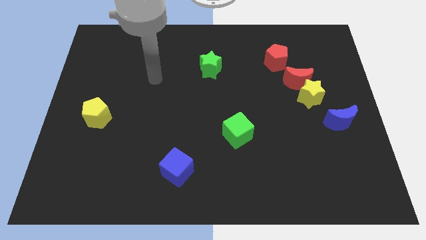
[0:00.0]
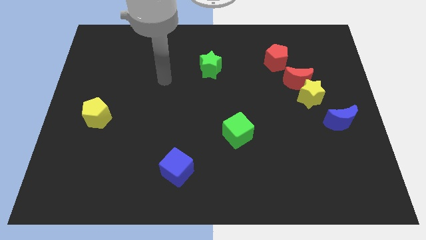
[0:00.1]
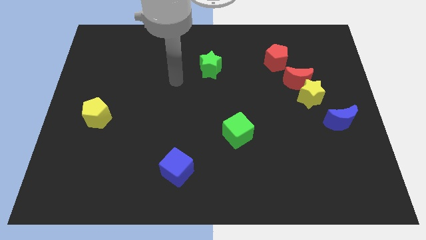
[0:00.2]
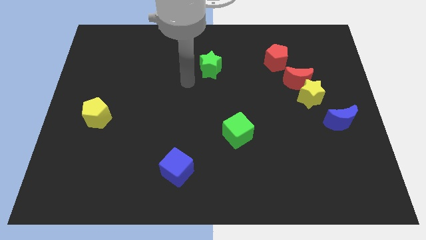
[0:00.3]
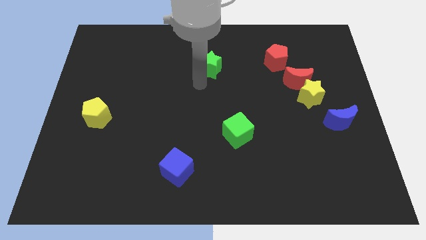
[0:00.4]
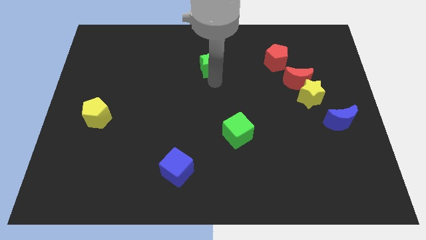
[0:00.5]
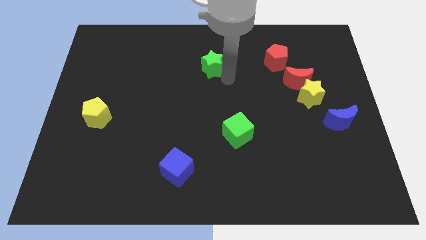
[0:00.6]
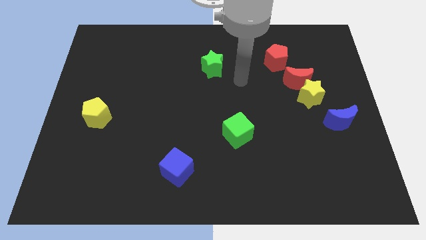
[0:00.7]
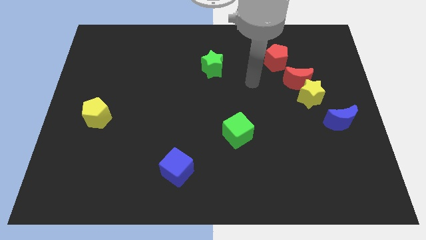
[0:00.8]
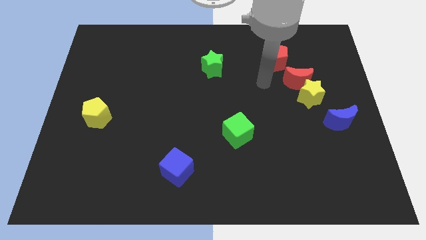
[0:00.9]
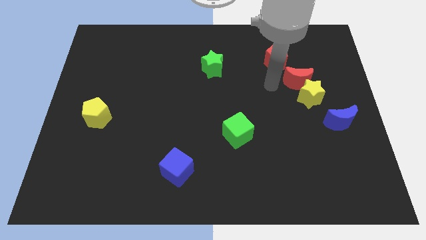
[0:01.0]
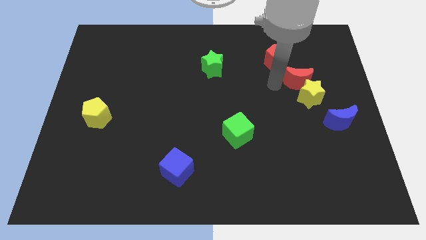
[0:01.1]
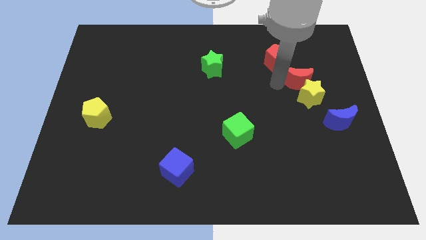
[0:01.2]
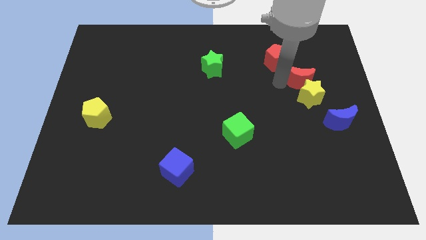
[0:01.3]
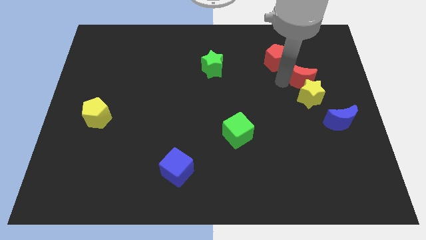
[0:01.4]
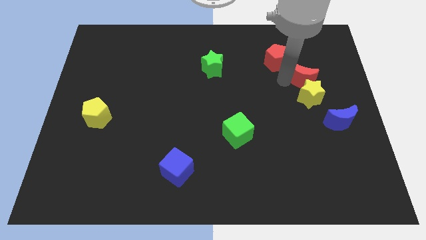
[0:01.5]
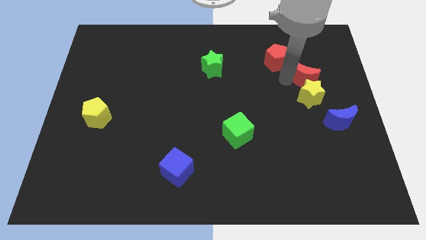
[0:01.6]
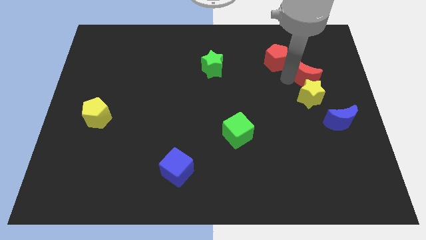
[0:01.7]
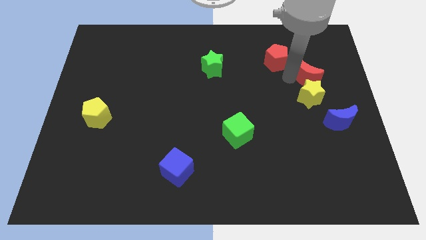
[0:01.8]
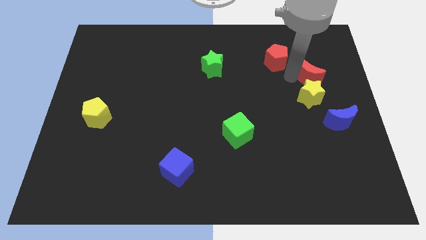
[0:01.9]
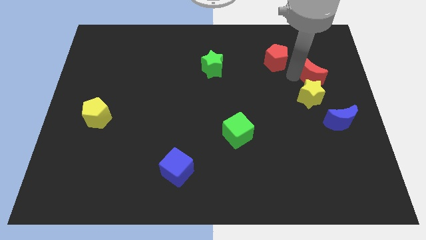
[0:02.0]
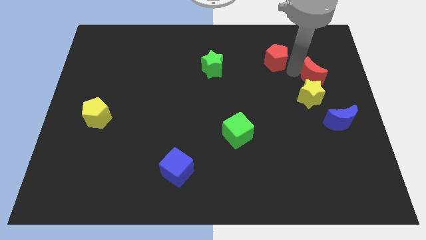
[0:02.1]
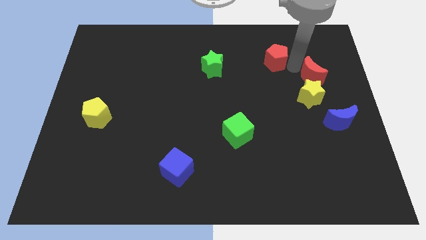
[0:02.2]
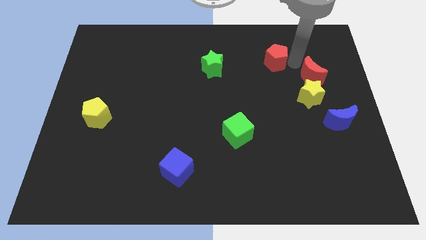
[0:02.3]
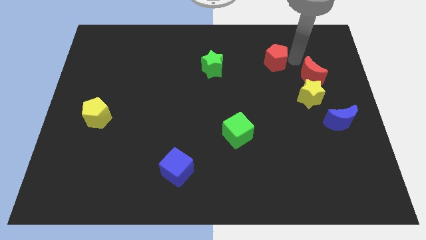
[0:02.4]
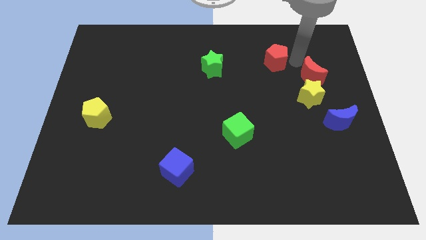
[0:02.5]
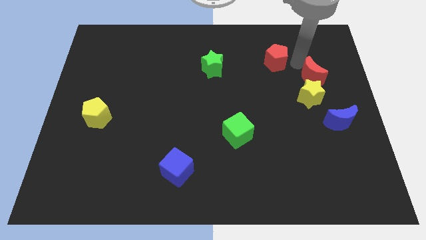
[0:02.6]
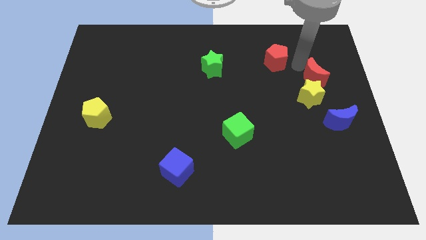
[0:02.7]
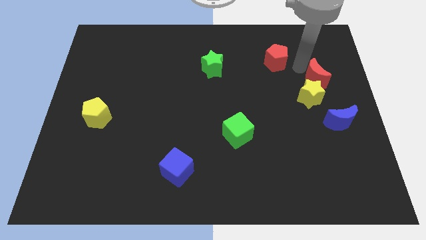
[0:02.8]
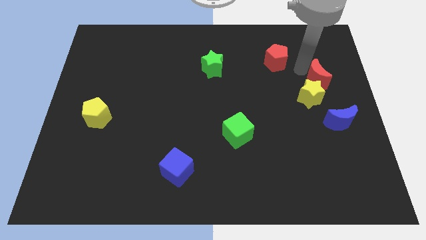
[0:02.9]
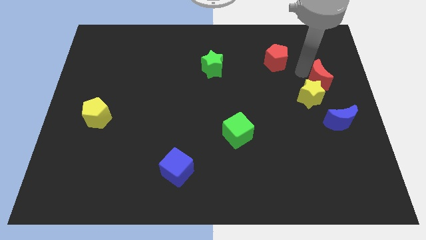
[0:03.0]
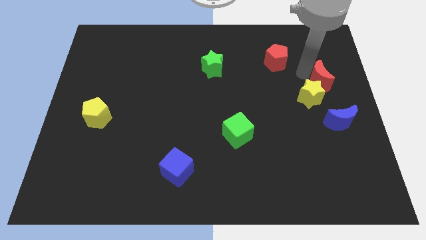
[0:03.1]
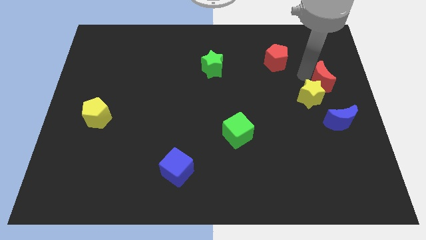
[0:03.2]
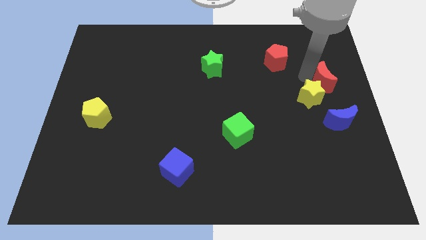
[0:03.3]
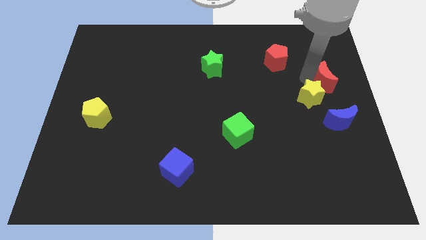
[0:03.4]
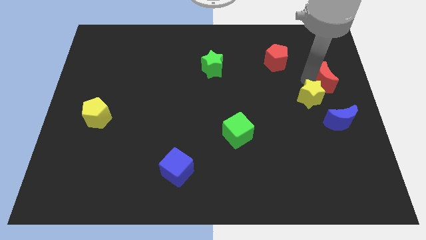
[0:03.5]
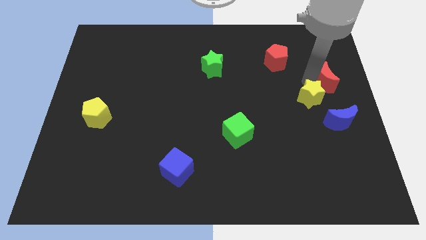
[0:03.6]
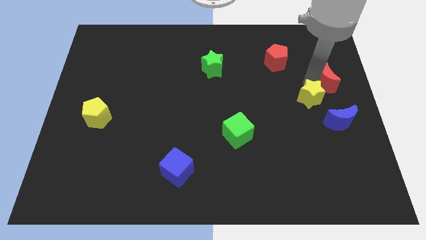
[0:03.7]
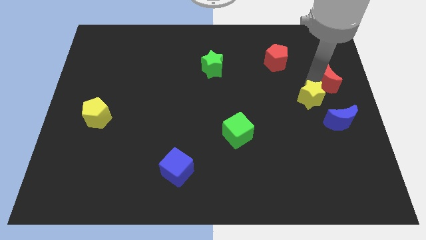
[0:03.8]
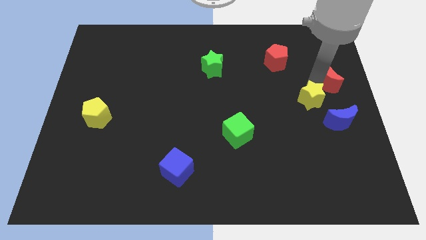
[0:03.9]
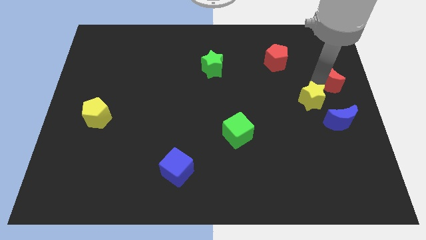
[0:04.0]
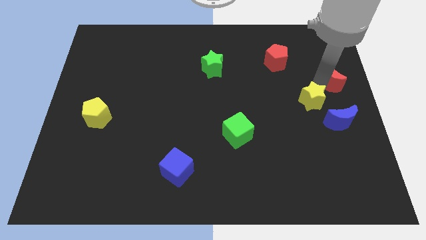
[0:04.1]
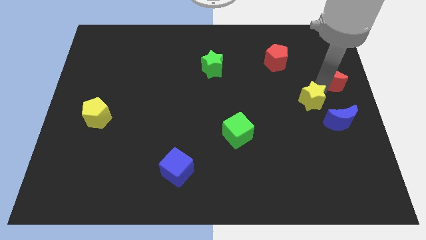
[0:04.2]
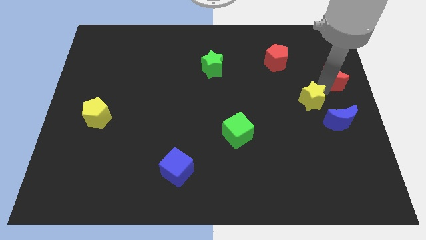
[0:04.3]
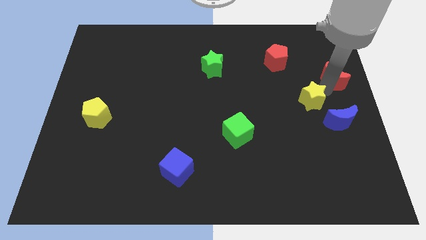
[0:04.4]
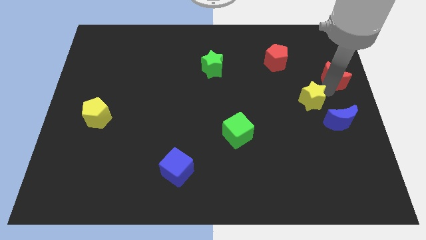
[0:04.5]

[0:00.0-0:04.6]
separate the red moon from the yellow star and red pentagon

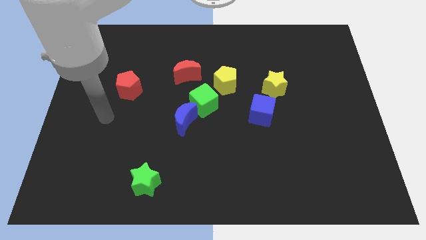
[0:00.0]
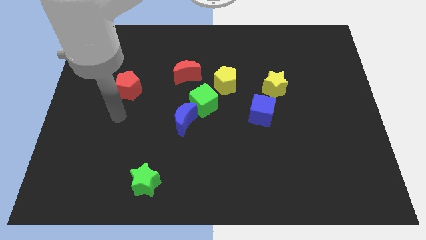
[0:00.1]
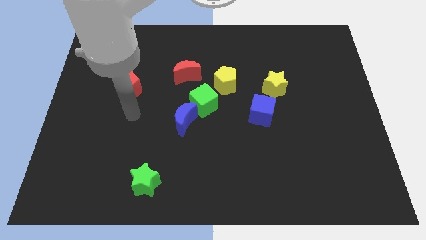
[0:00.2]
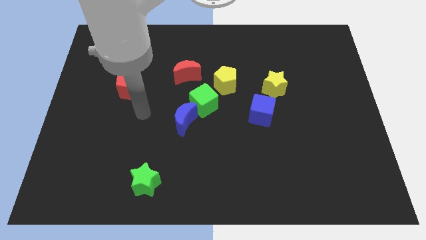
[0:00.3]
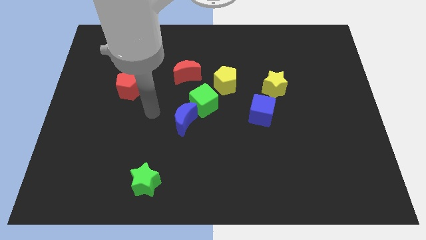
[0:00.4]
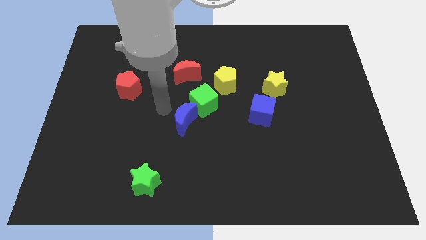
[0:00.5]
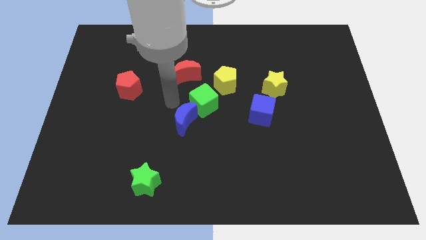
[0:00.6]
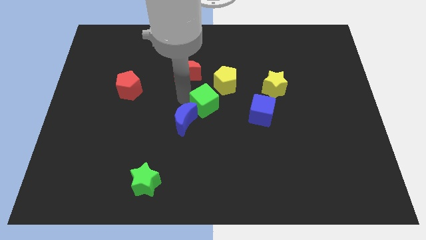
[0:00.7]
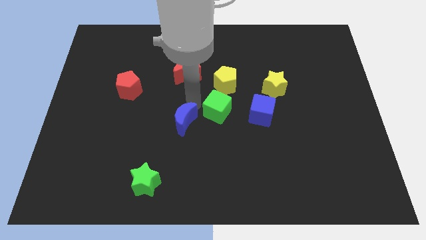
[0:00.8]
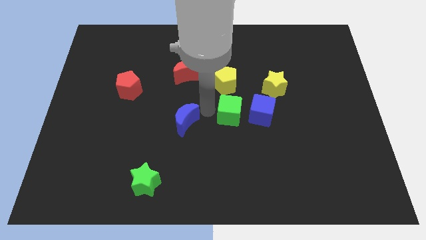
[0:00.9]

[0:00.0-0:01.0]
separate the blue moon from the green cube

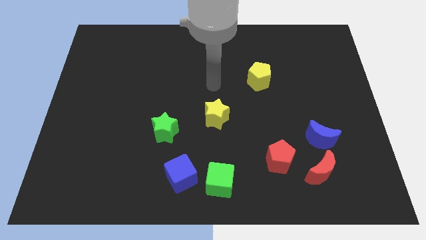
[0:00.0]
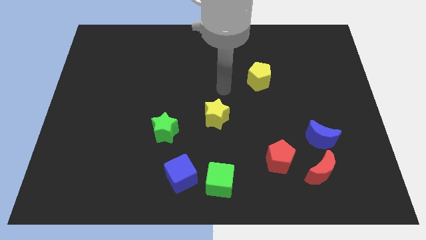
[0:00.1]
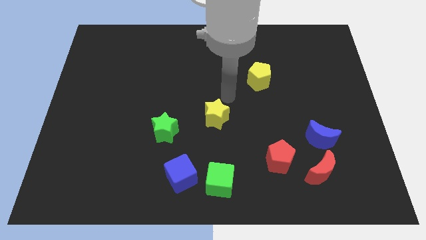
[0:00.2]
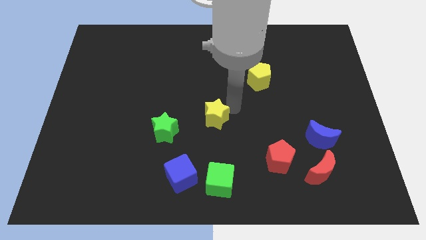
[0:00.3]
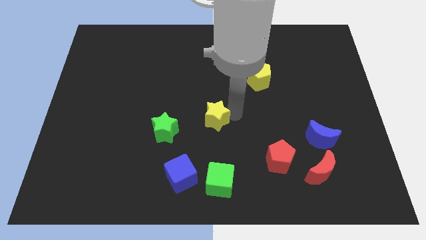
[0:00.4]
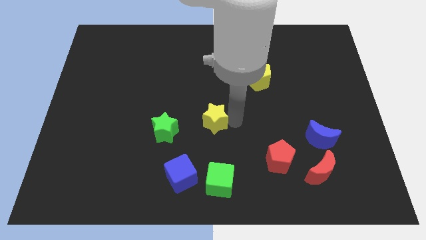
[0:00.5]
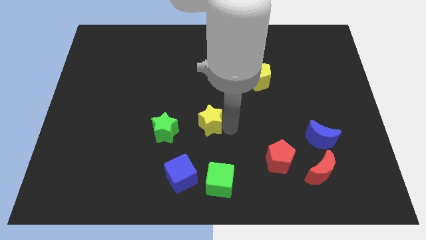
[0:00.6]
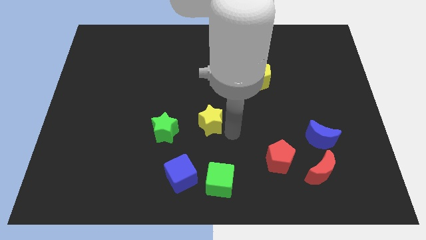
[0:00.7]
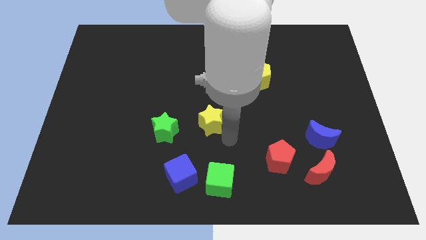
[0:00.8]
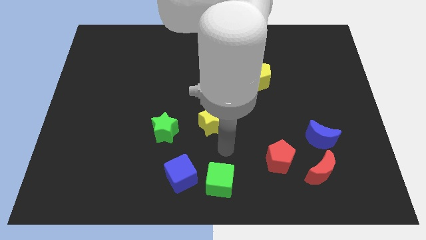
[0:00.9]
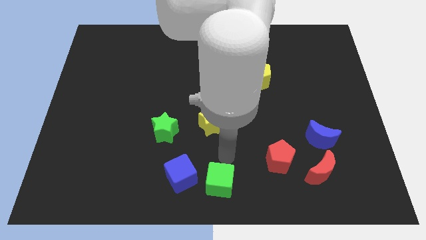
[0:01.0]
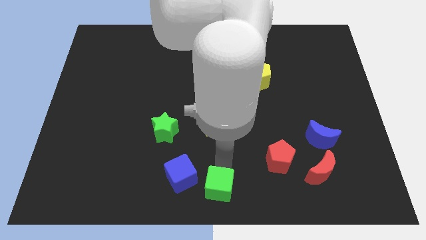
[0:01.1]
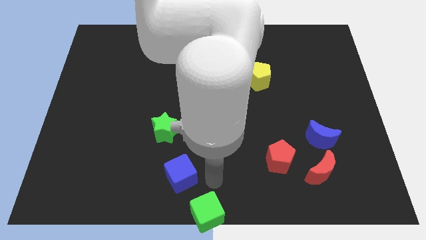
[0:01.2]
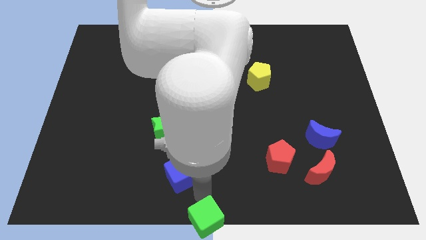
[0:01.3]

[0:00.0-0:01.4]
pull the blue cube apart from the green cube

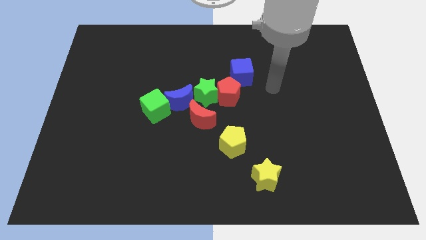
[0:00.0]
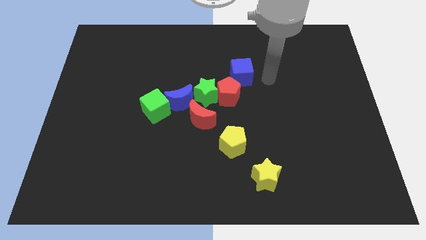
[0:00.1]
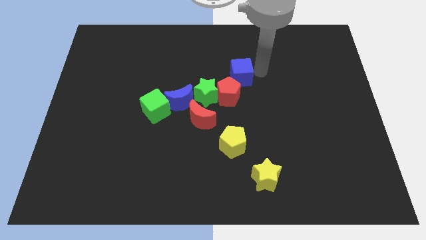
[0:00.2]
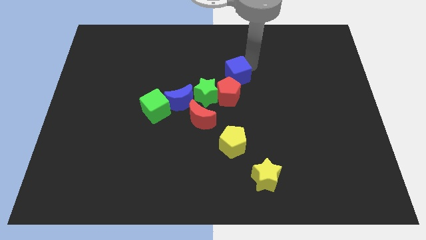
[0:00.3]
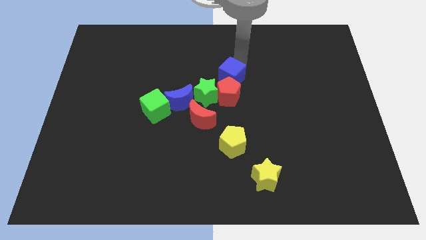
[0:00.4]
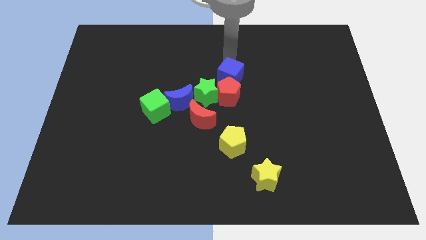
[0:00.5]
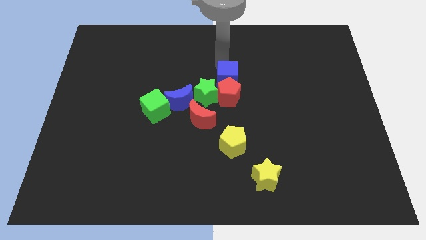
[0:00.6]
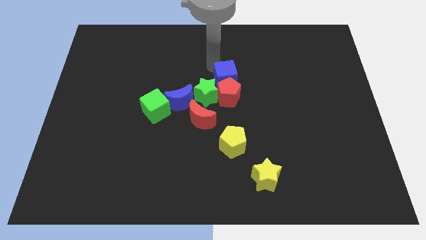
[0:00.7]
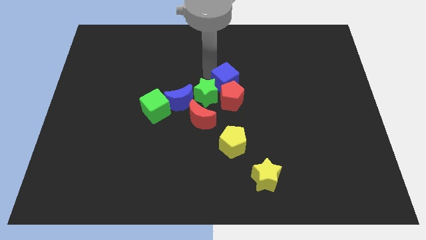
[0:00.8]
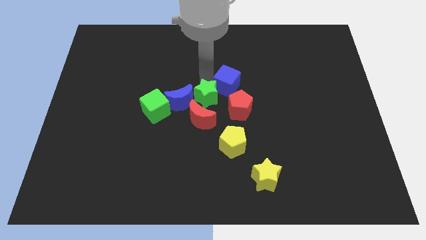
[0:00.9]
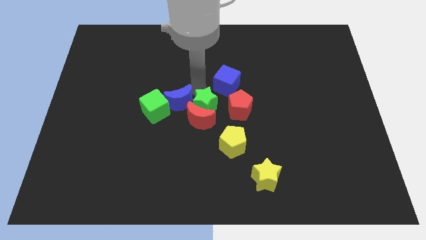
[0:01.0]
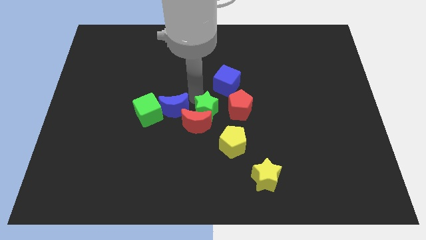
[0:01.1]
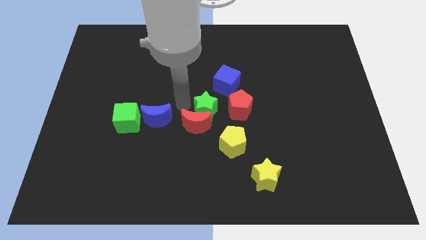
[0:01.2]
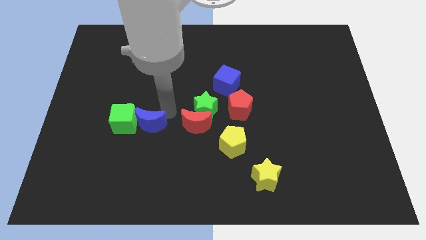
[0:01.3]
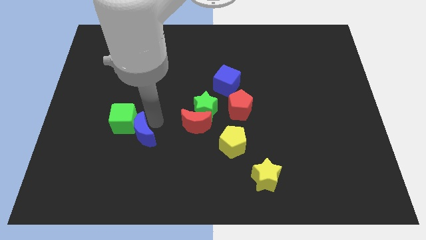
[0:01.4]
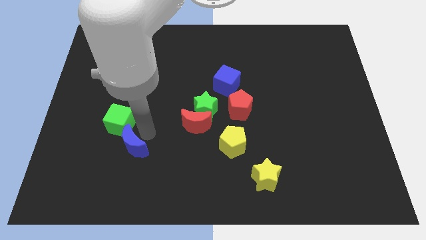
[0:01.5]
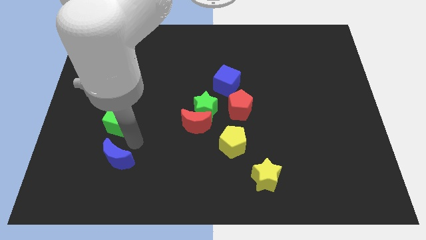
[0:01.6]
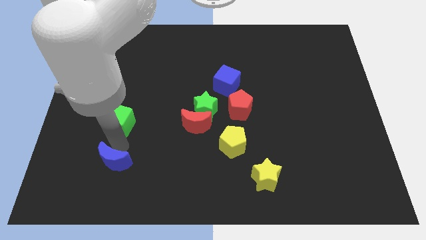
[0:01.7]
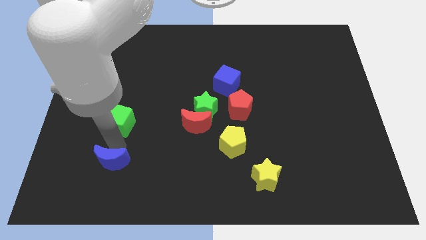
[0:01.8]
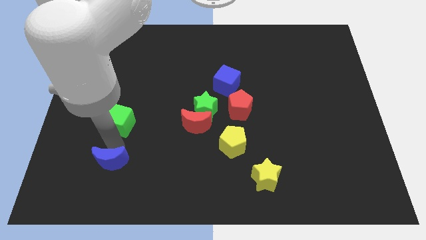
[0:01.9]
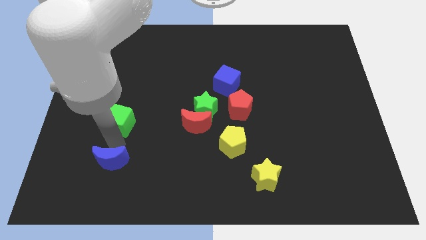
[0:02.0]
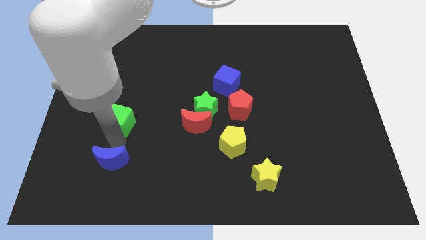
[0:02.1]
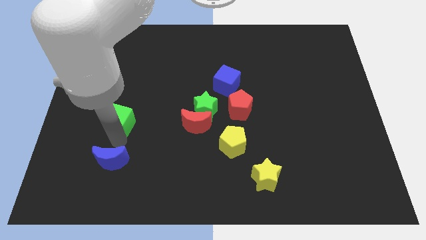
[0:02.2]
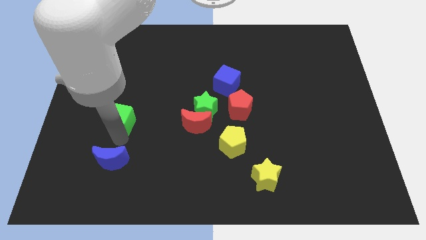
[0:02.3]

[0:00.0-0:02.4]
separate the green cube from the blue moon
